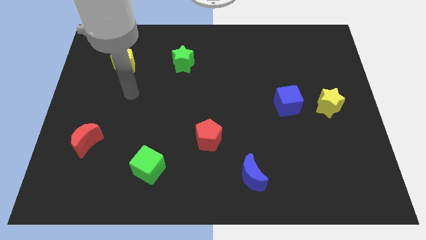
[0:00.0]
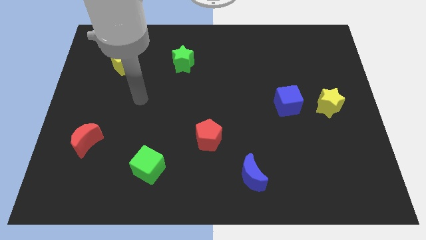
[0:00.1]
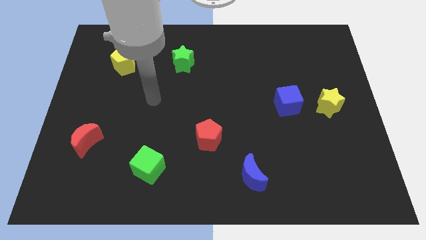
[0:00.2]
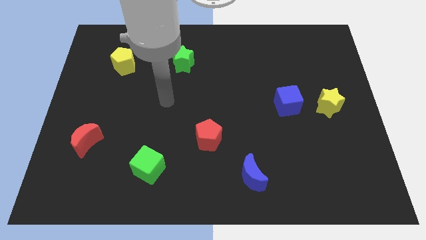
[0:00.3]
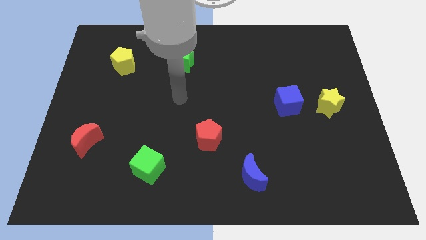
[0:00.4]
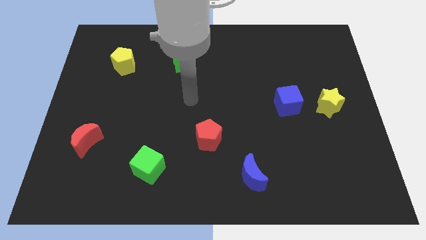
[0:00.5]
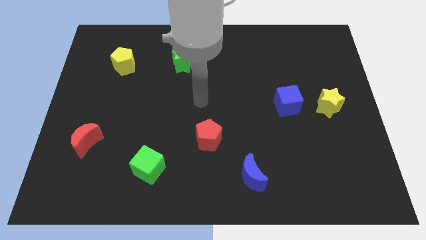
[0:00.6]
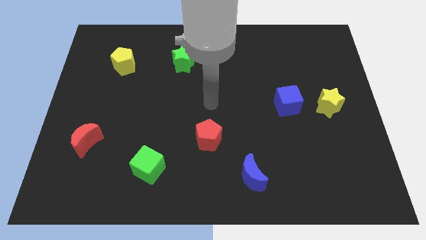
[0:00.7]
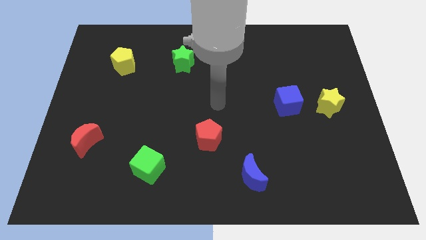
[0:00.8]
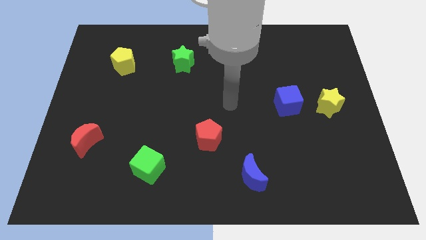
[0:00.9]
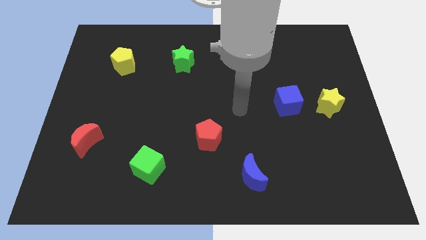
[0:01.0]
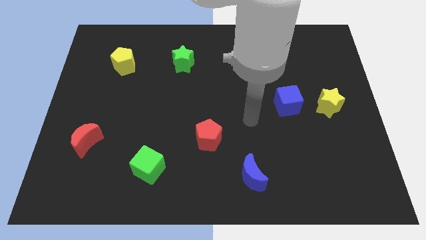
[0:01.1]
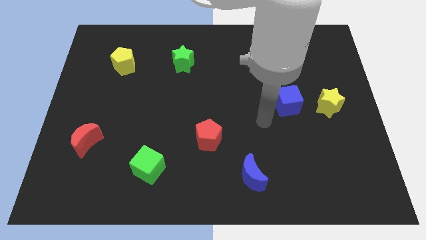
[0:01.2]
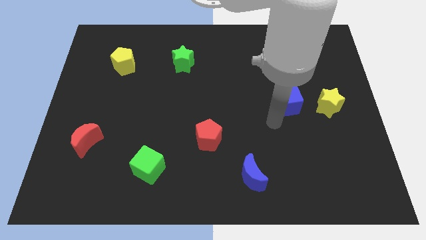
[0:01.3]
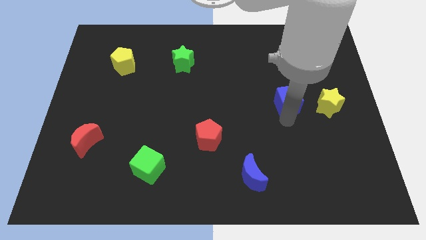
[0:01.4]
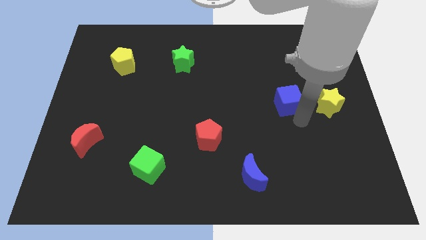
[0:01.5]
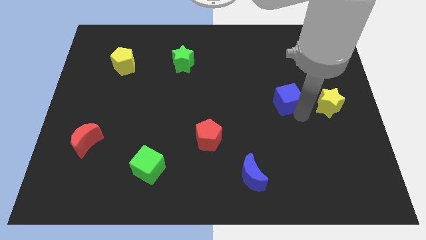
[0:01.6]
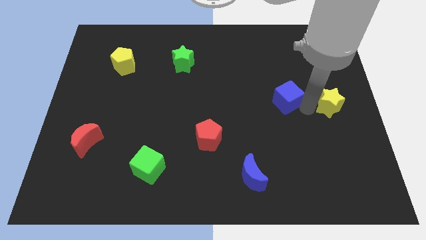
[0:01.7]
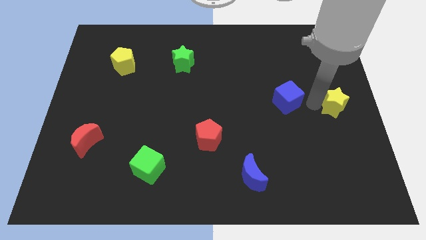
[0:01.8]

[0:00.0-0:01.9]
separate the blue cube from the yellow star

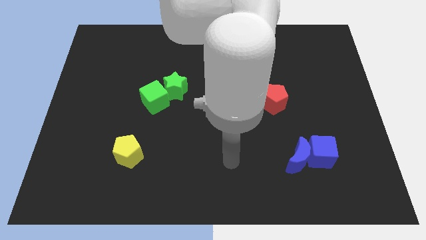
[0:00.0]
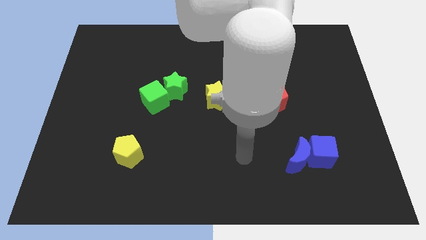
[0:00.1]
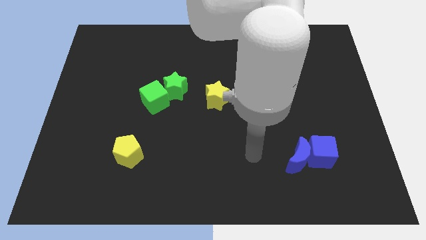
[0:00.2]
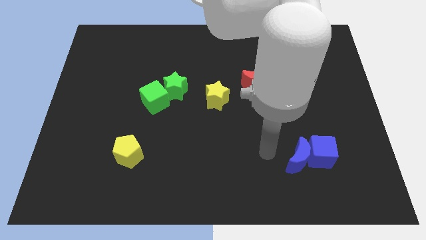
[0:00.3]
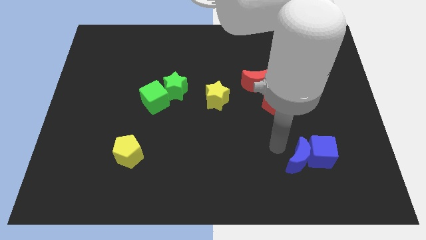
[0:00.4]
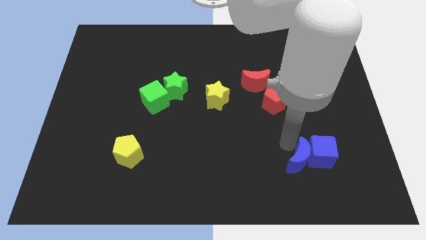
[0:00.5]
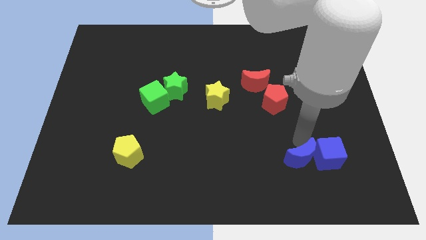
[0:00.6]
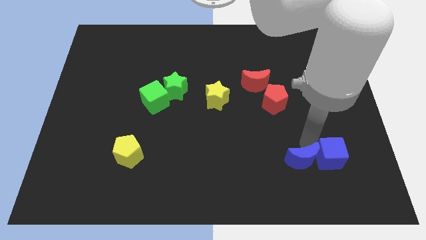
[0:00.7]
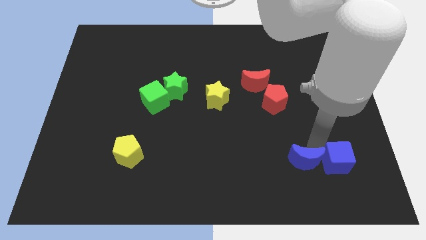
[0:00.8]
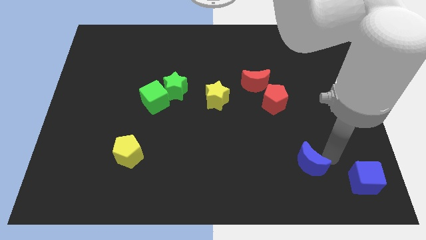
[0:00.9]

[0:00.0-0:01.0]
pull the blue moon apart from the blue cube

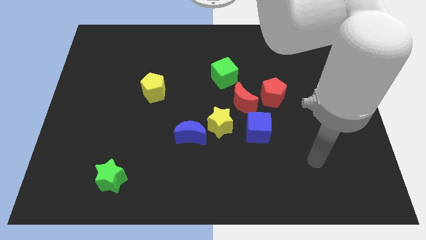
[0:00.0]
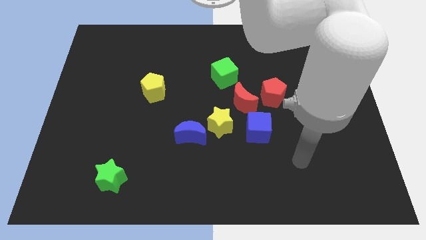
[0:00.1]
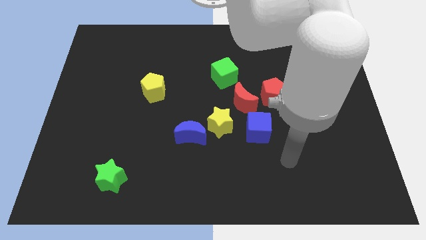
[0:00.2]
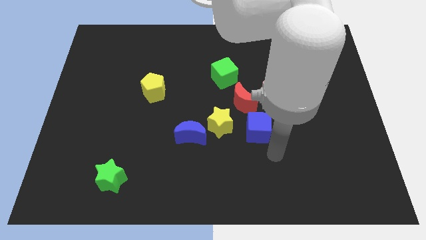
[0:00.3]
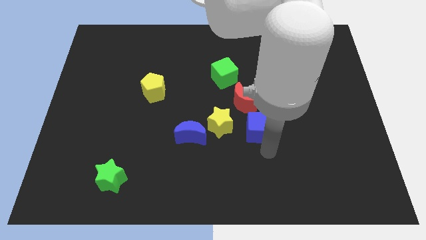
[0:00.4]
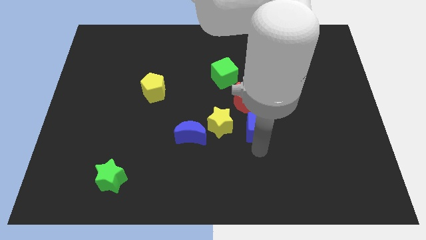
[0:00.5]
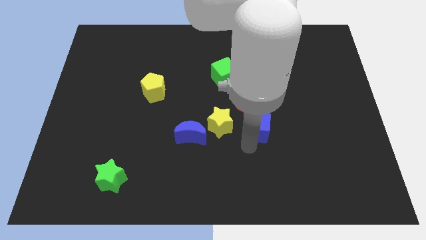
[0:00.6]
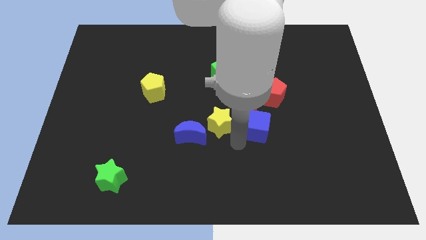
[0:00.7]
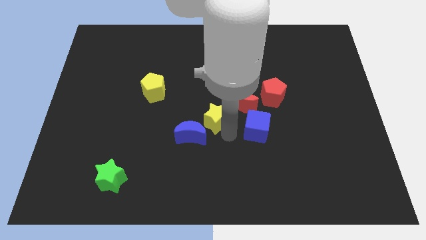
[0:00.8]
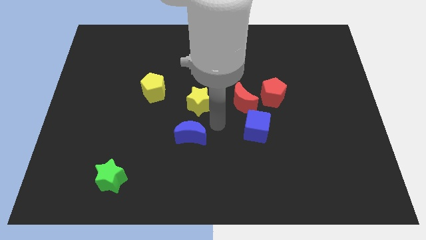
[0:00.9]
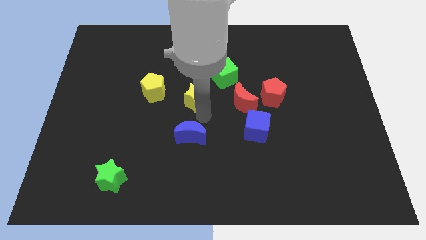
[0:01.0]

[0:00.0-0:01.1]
separate the blue moon from the yellow star

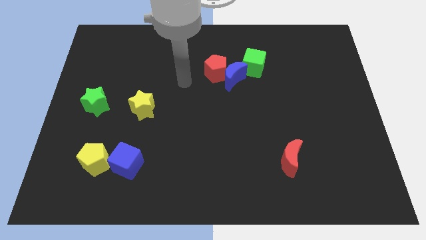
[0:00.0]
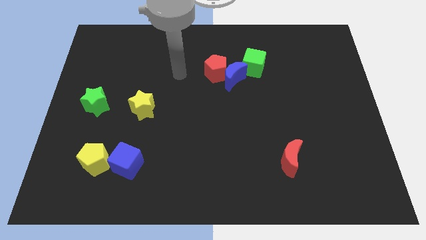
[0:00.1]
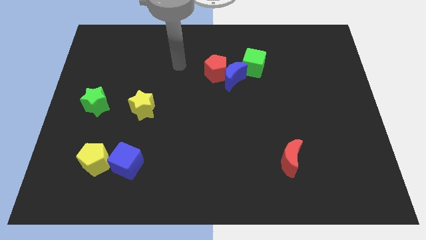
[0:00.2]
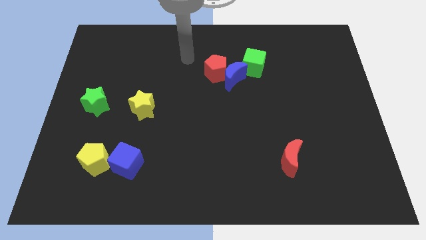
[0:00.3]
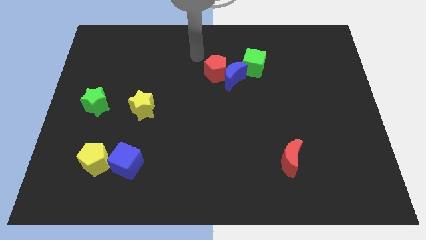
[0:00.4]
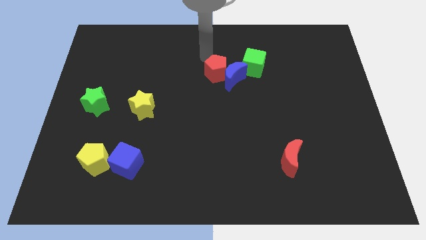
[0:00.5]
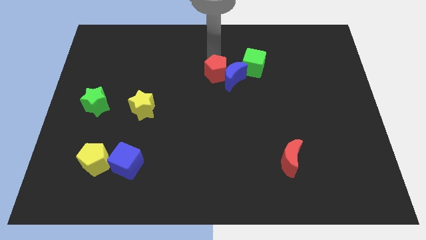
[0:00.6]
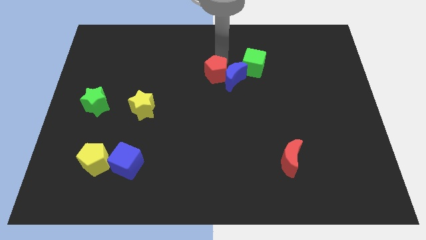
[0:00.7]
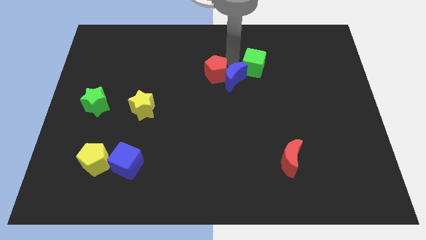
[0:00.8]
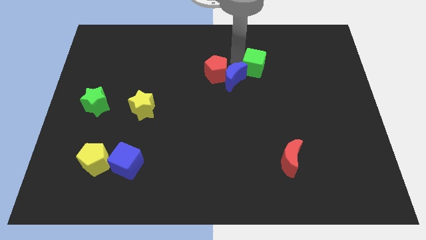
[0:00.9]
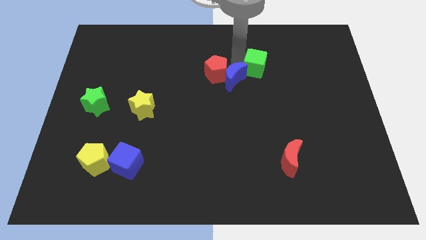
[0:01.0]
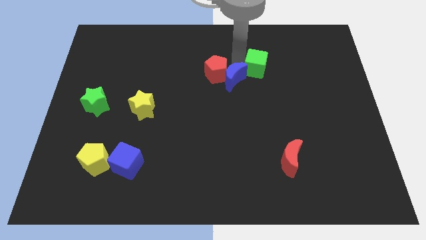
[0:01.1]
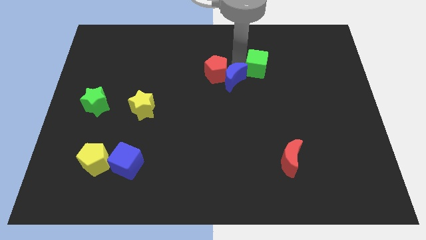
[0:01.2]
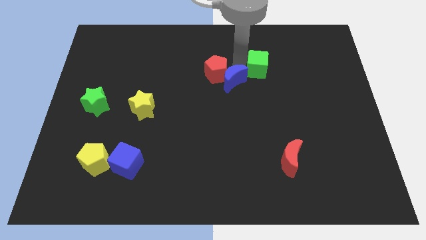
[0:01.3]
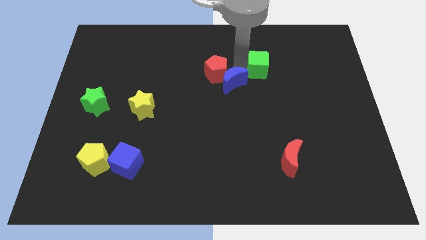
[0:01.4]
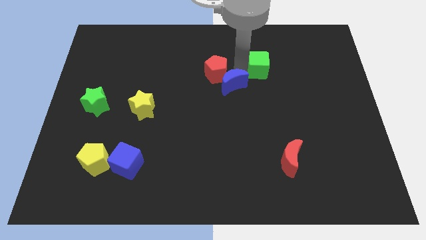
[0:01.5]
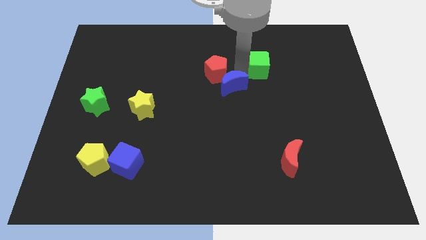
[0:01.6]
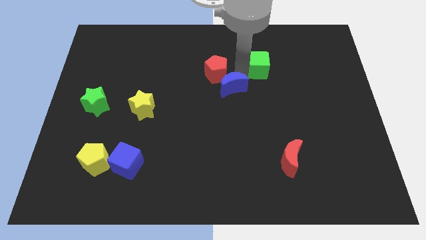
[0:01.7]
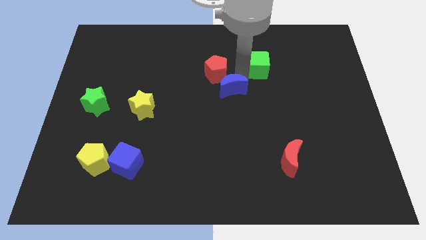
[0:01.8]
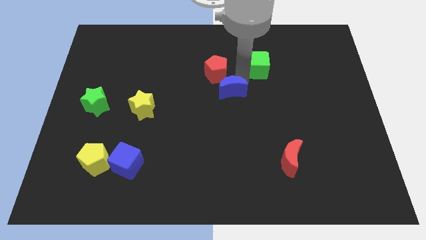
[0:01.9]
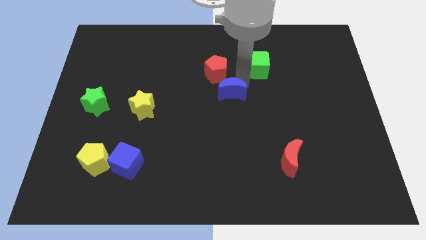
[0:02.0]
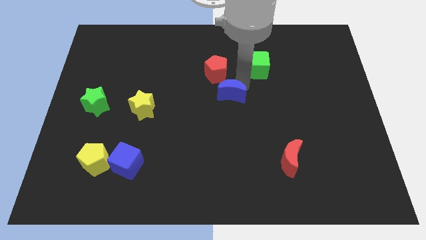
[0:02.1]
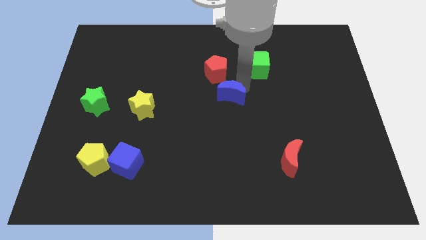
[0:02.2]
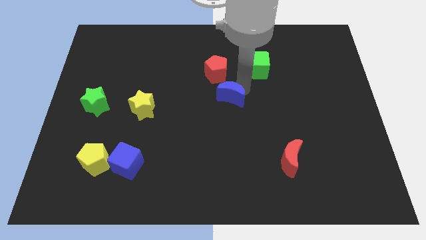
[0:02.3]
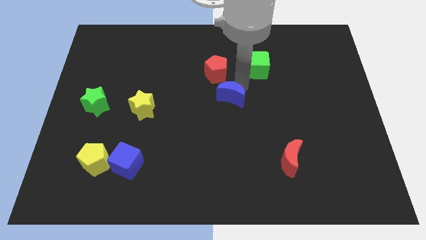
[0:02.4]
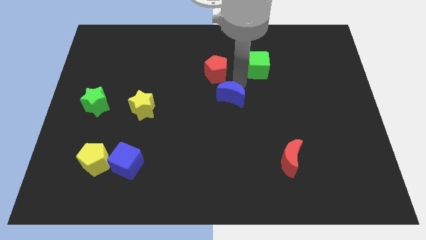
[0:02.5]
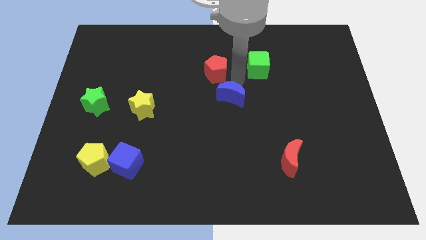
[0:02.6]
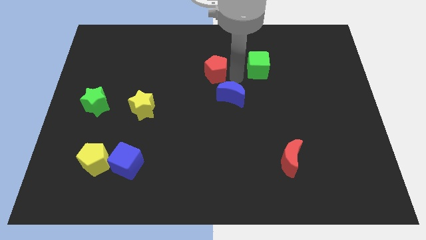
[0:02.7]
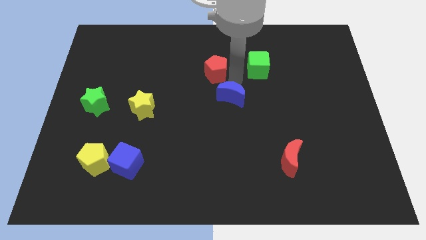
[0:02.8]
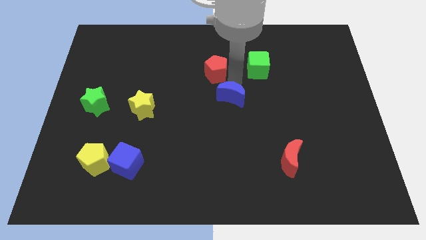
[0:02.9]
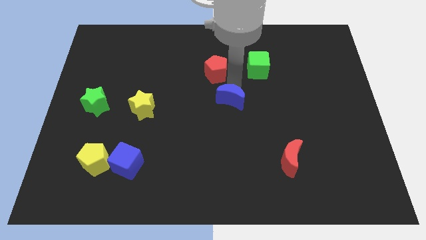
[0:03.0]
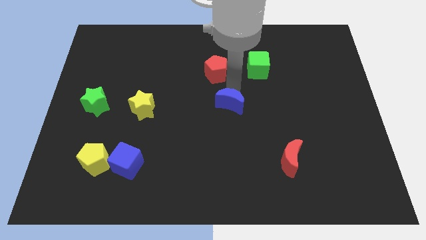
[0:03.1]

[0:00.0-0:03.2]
separate the blue moon from the red pentagon and green cube

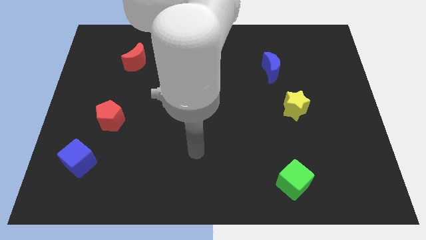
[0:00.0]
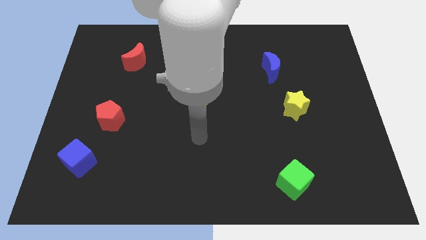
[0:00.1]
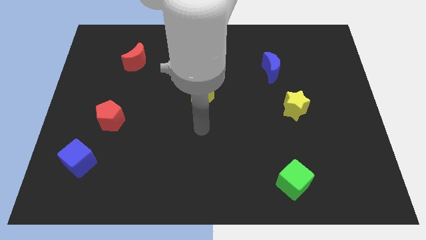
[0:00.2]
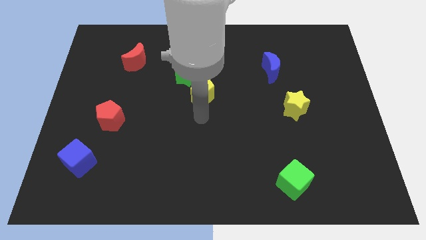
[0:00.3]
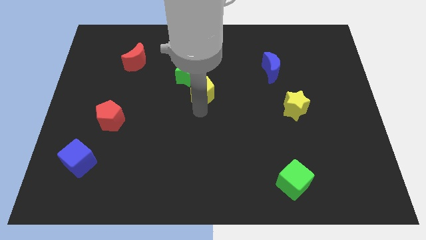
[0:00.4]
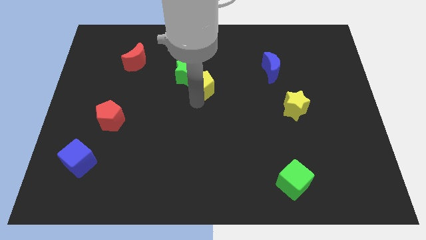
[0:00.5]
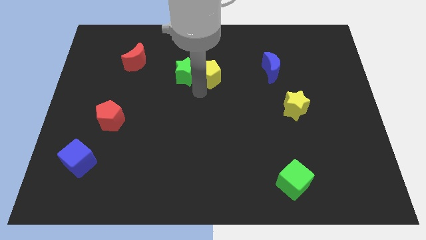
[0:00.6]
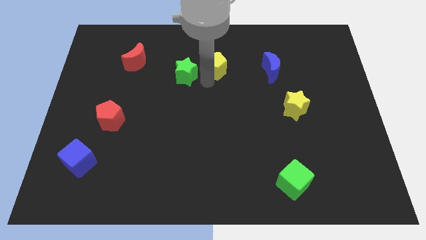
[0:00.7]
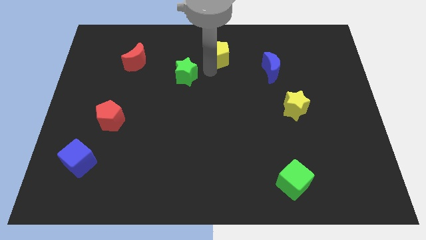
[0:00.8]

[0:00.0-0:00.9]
separate the green star from the yellow pentagon

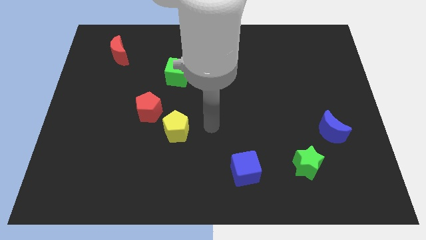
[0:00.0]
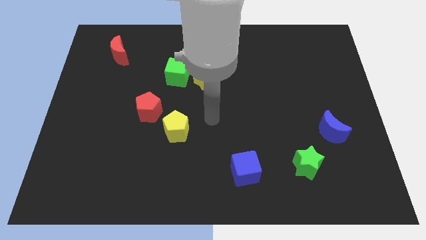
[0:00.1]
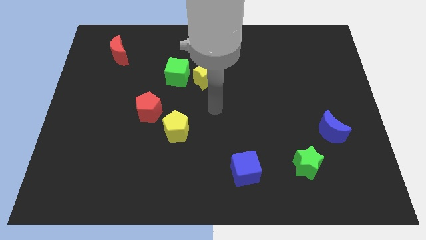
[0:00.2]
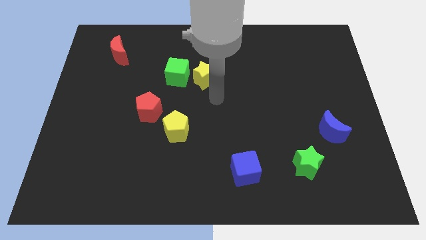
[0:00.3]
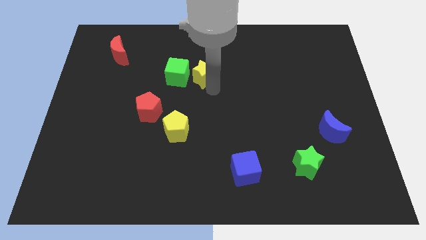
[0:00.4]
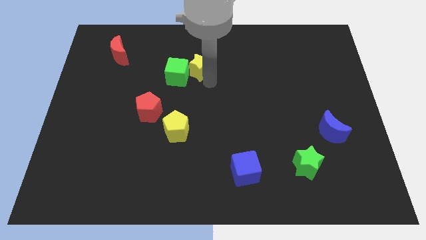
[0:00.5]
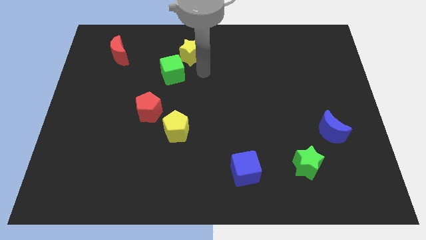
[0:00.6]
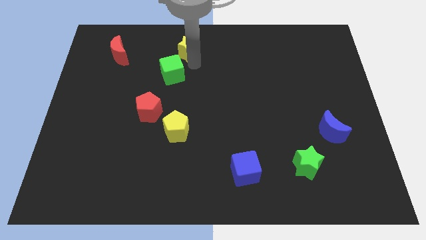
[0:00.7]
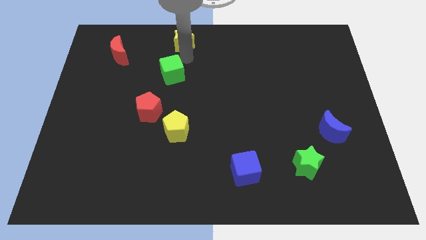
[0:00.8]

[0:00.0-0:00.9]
separate the green cube from the yellow star

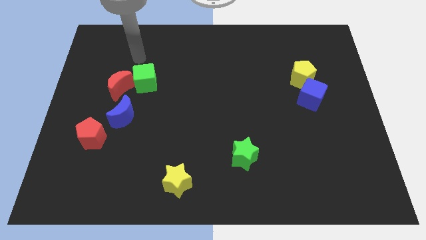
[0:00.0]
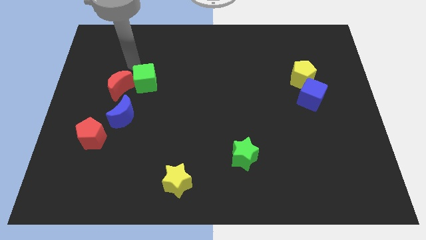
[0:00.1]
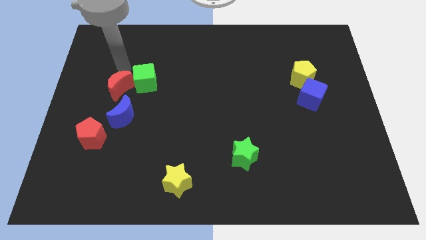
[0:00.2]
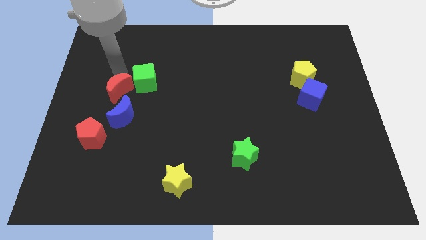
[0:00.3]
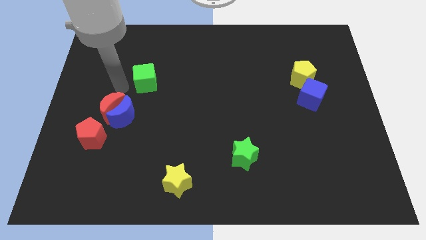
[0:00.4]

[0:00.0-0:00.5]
separate the green cube from the red moon
